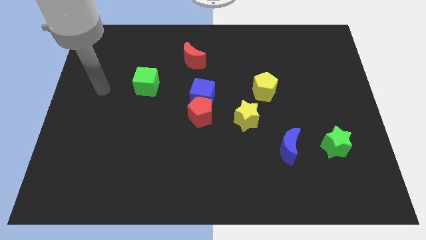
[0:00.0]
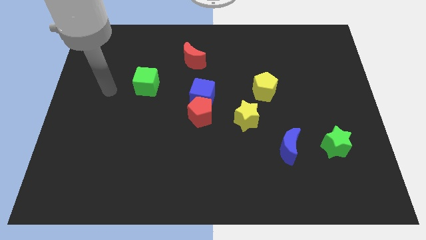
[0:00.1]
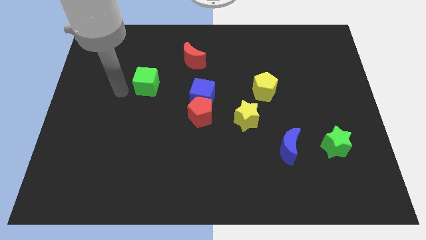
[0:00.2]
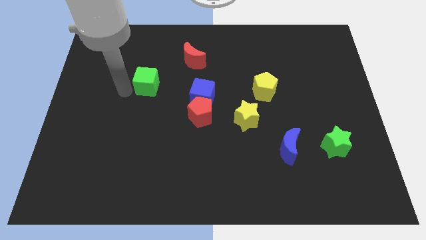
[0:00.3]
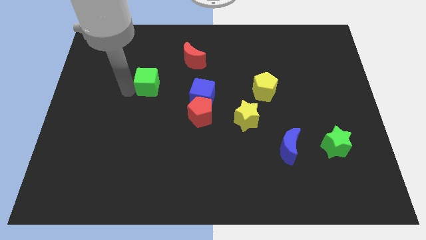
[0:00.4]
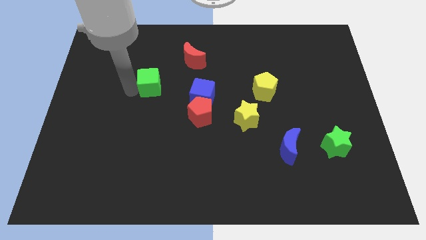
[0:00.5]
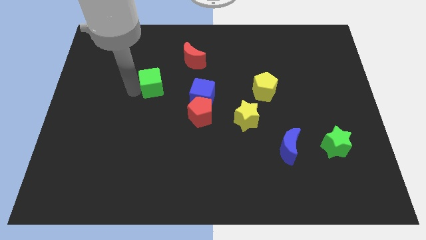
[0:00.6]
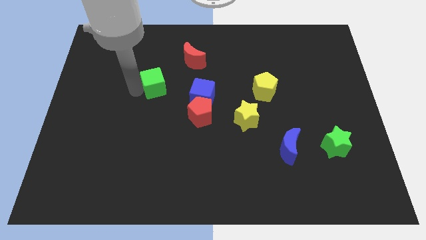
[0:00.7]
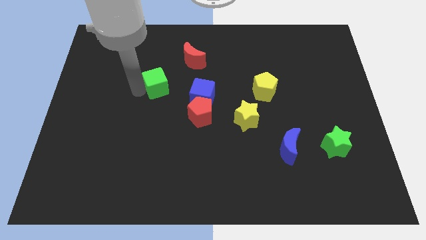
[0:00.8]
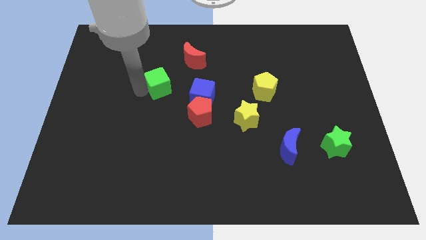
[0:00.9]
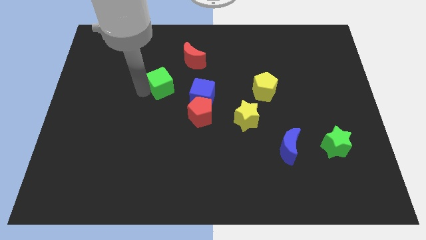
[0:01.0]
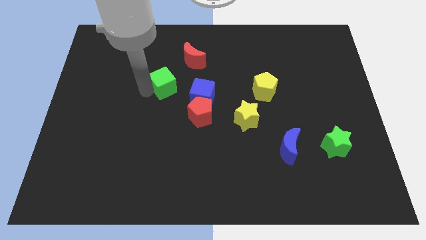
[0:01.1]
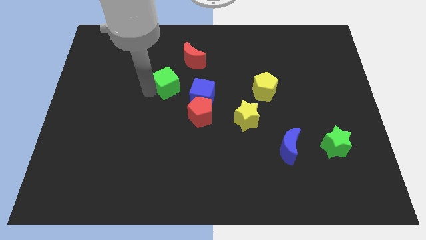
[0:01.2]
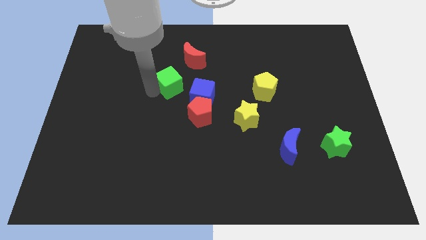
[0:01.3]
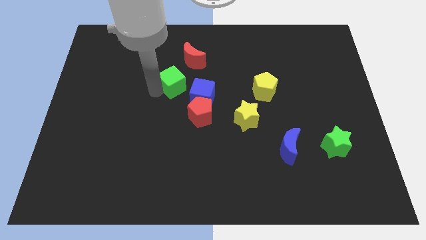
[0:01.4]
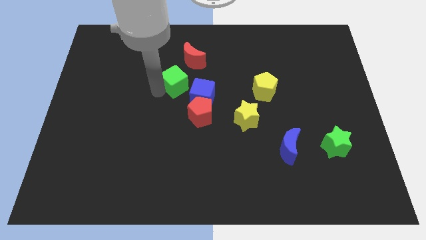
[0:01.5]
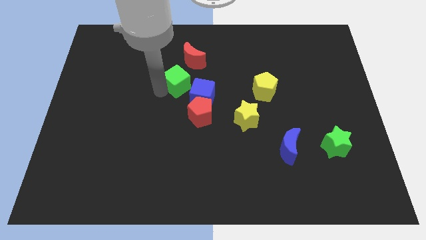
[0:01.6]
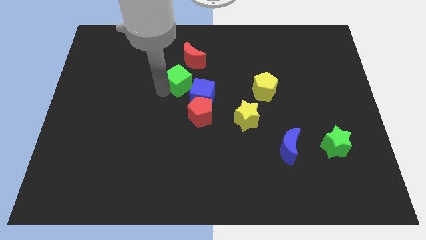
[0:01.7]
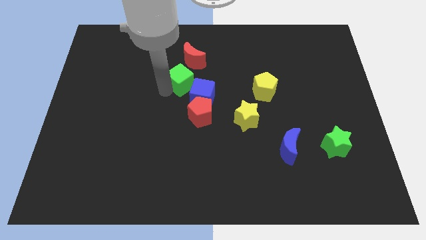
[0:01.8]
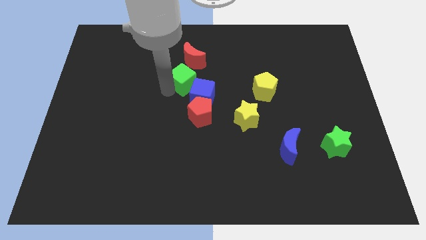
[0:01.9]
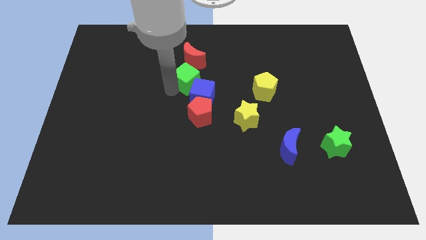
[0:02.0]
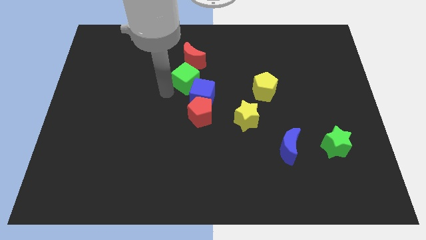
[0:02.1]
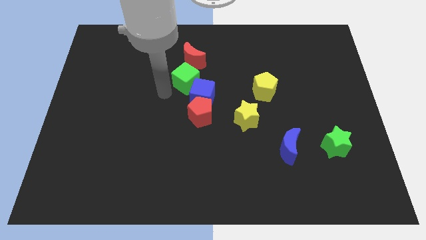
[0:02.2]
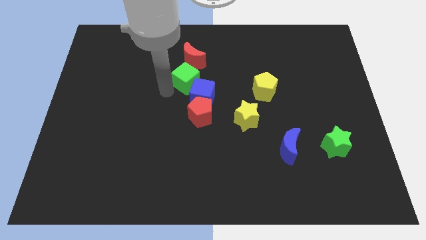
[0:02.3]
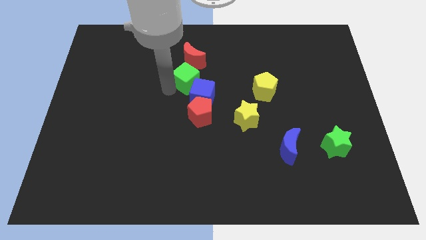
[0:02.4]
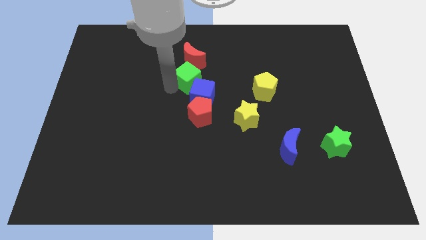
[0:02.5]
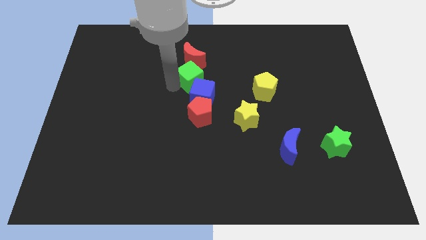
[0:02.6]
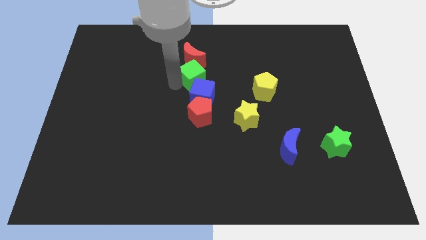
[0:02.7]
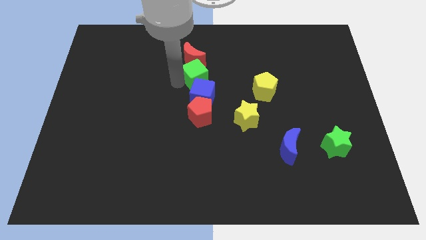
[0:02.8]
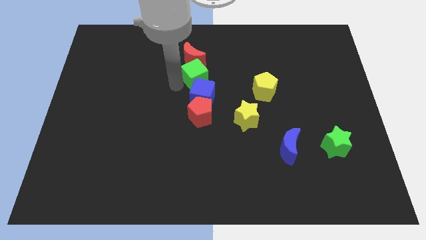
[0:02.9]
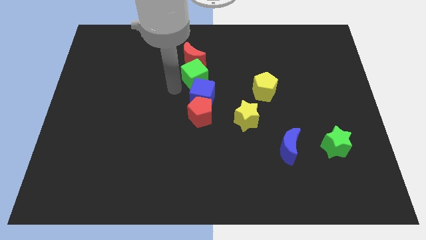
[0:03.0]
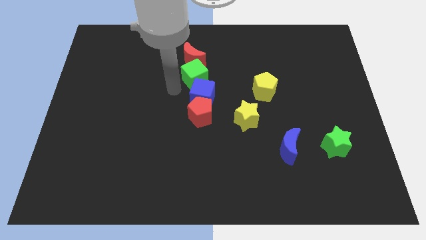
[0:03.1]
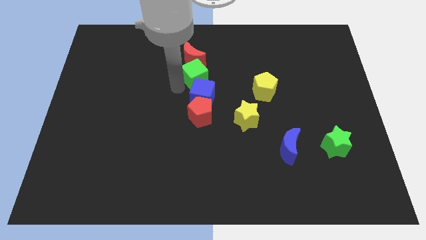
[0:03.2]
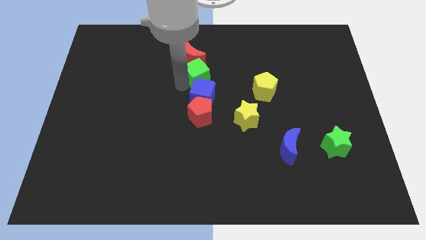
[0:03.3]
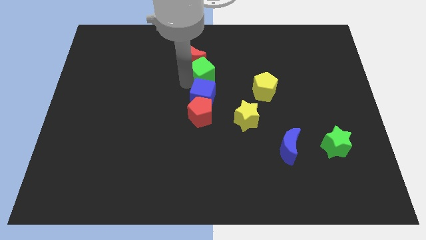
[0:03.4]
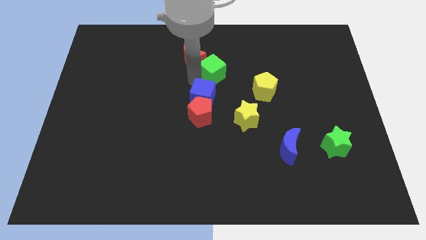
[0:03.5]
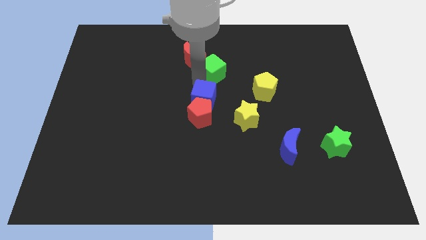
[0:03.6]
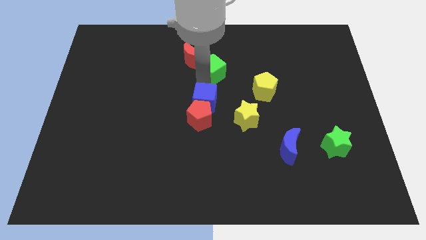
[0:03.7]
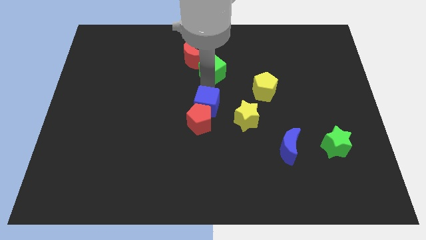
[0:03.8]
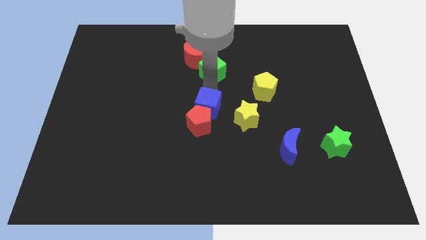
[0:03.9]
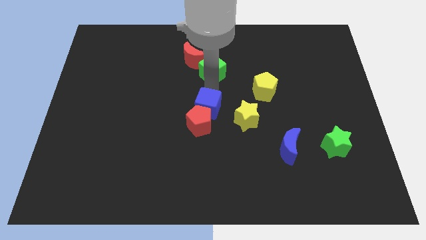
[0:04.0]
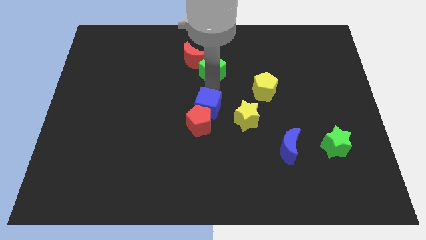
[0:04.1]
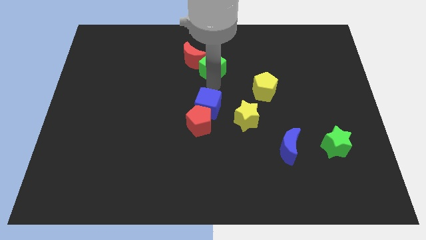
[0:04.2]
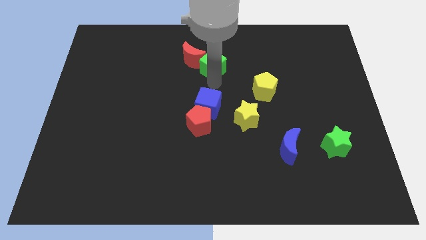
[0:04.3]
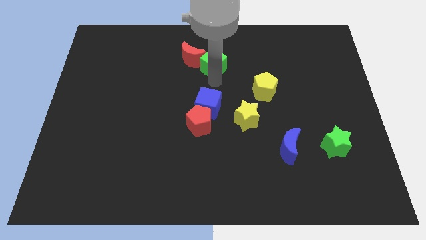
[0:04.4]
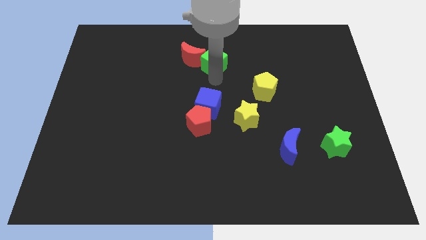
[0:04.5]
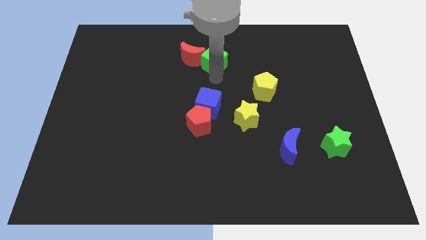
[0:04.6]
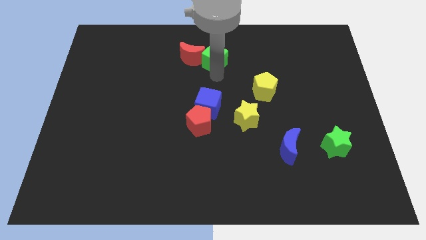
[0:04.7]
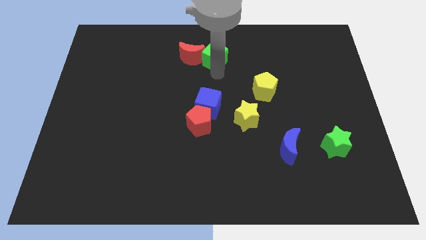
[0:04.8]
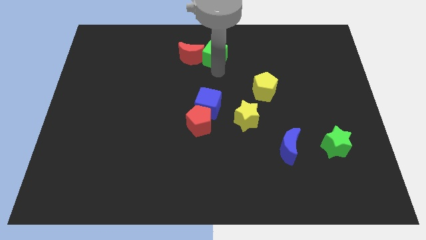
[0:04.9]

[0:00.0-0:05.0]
slide the green cube to the top
